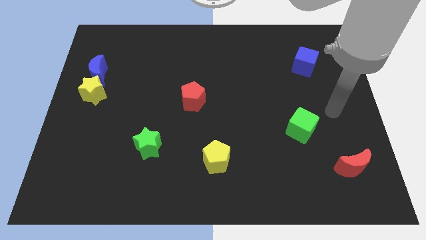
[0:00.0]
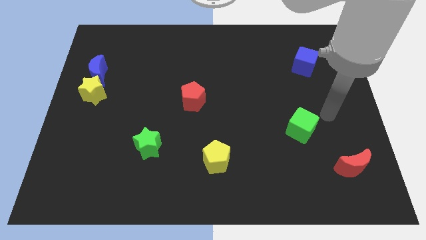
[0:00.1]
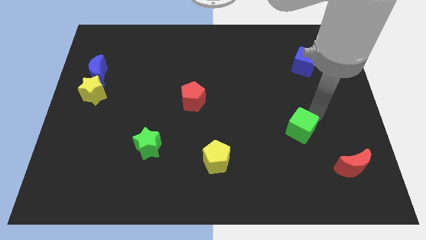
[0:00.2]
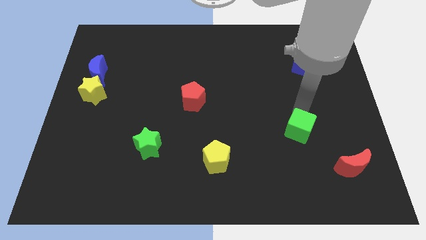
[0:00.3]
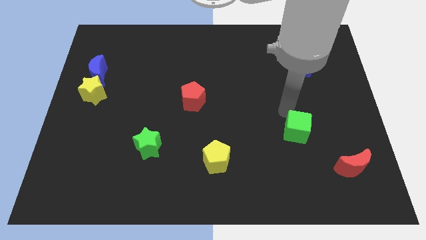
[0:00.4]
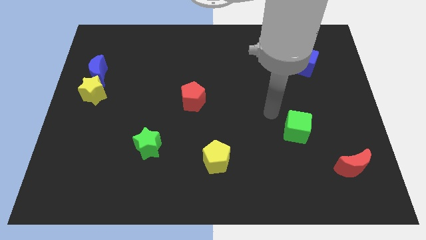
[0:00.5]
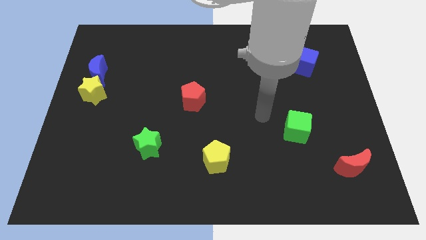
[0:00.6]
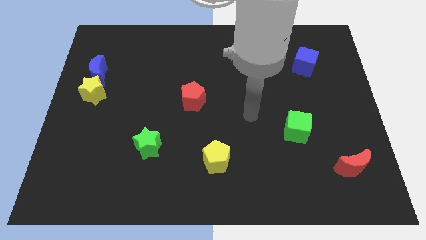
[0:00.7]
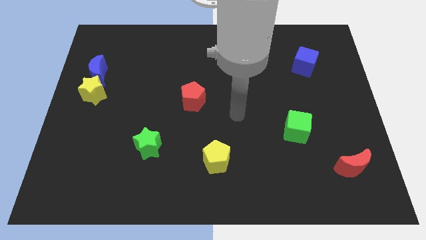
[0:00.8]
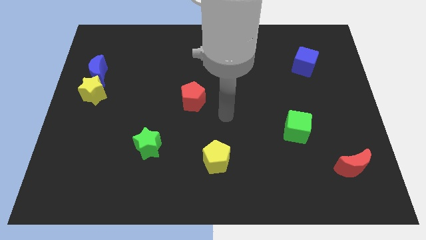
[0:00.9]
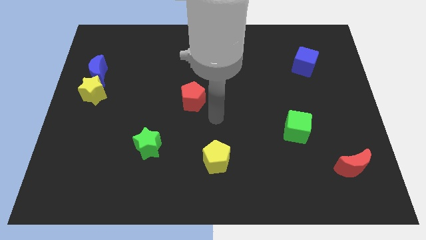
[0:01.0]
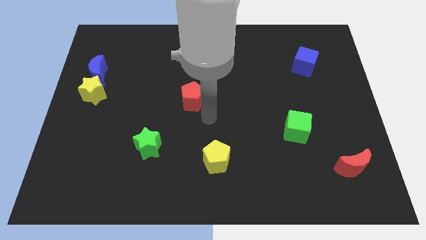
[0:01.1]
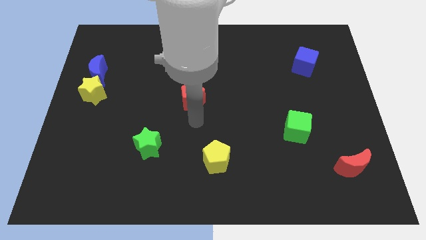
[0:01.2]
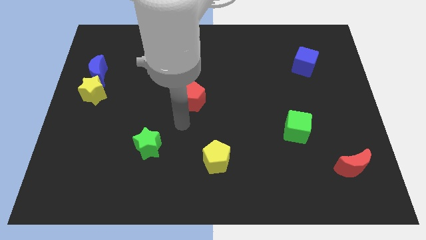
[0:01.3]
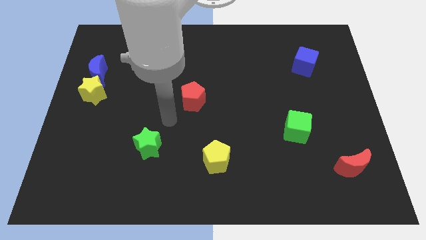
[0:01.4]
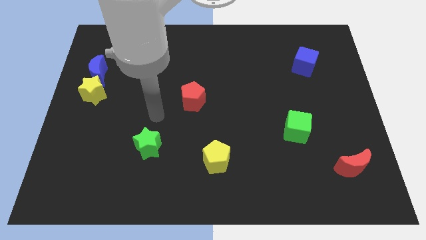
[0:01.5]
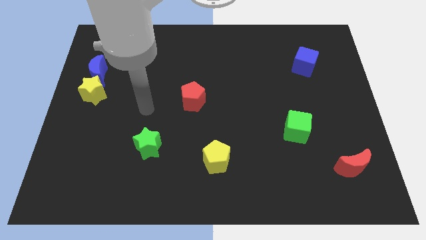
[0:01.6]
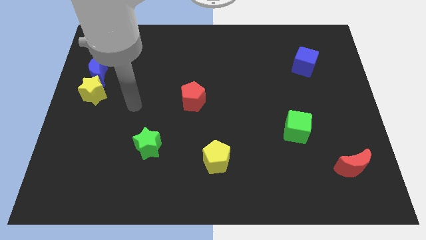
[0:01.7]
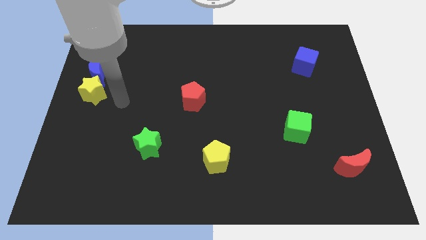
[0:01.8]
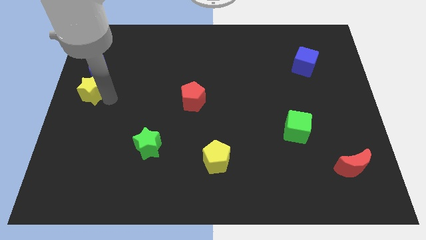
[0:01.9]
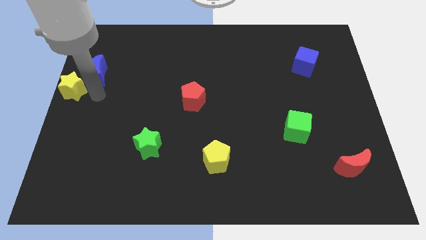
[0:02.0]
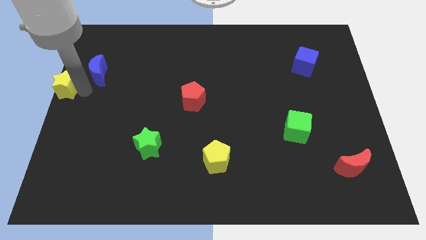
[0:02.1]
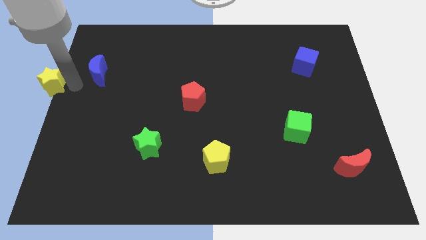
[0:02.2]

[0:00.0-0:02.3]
move the blue moon away from the yellow star

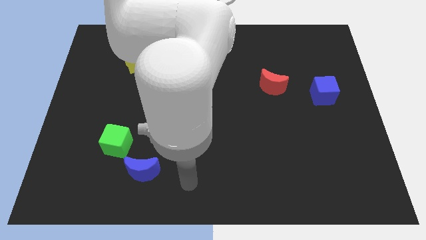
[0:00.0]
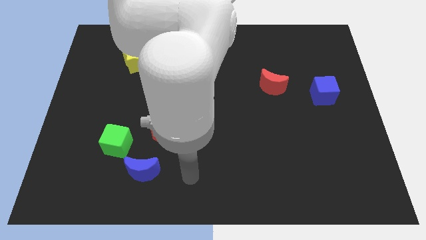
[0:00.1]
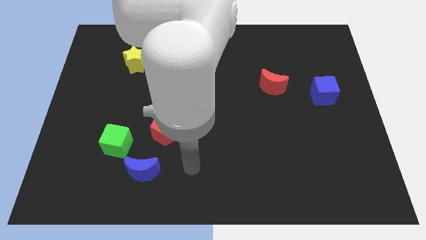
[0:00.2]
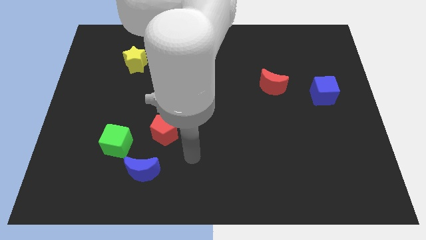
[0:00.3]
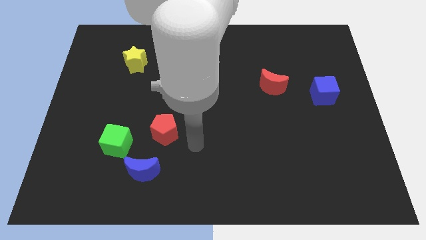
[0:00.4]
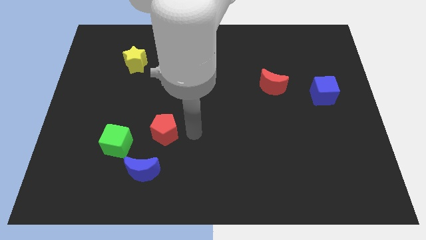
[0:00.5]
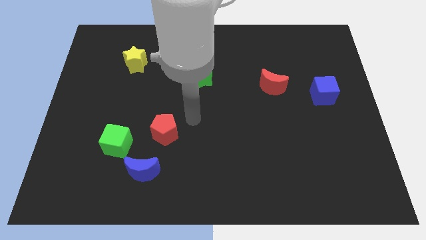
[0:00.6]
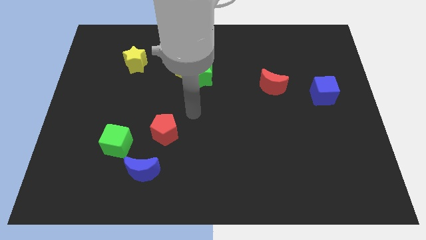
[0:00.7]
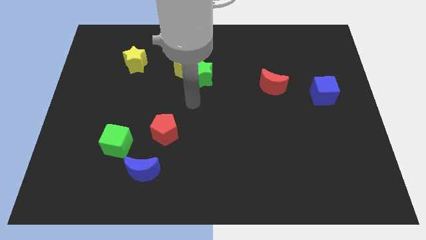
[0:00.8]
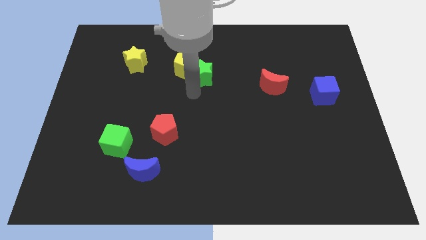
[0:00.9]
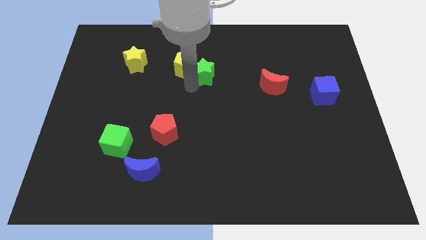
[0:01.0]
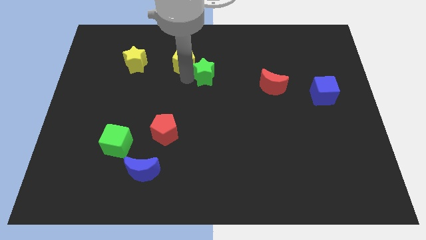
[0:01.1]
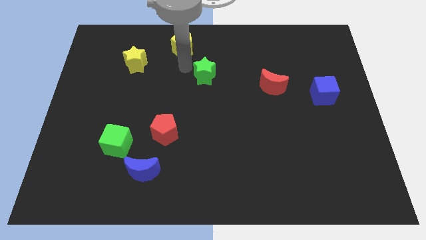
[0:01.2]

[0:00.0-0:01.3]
move the green star away from the yellow pentagon

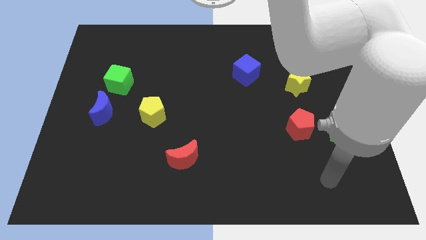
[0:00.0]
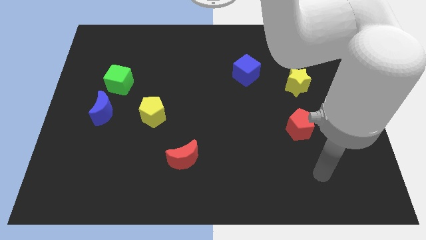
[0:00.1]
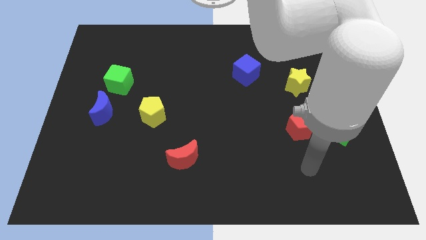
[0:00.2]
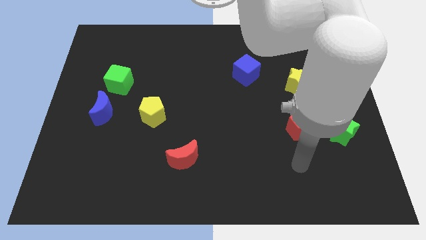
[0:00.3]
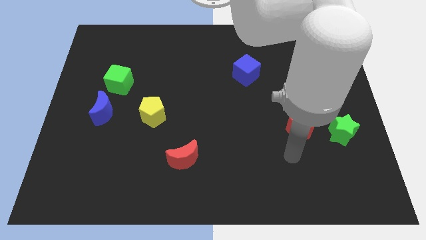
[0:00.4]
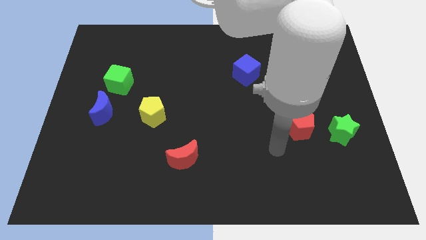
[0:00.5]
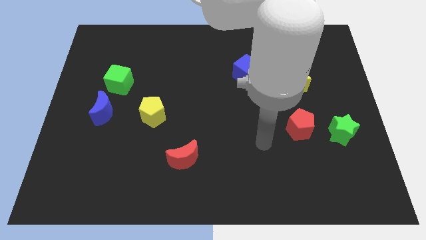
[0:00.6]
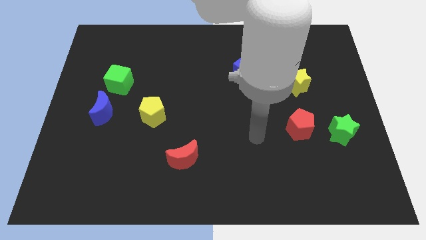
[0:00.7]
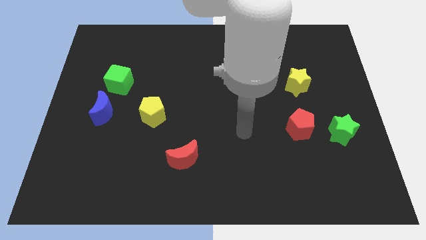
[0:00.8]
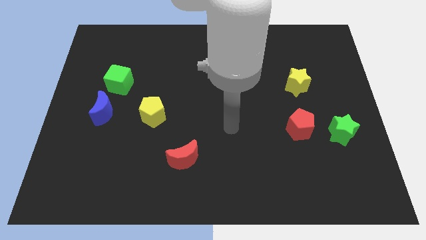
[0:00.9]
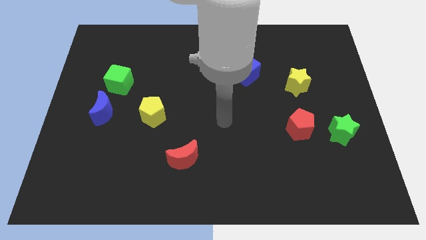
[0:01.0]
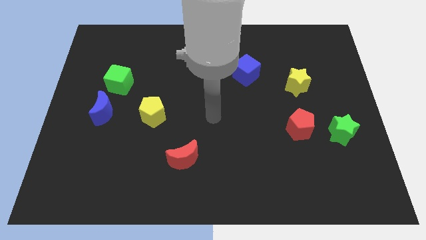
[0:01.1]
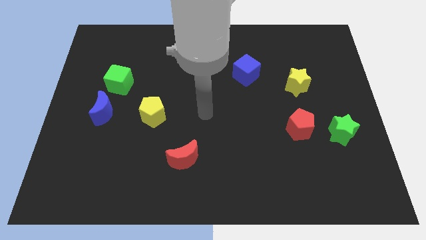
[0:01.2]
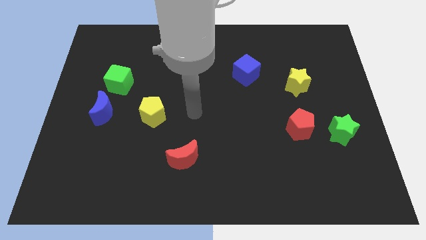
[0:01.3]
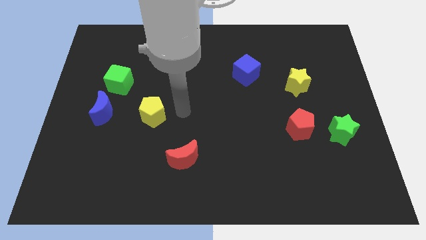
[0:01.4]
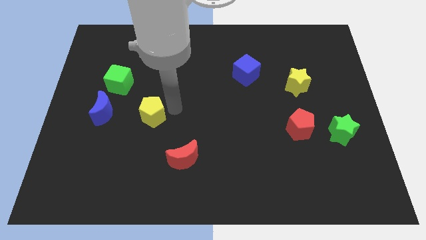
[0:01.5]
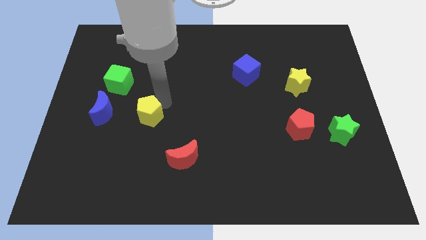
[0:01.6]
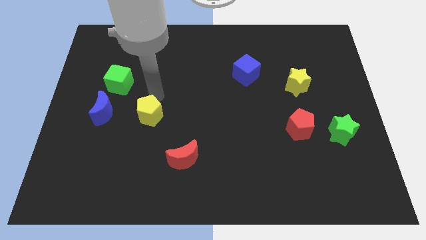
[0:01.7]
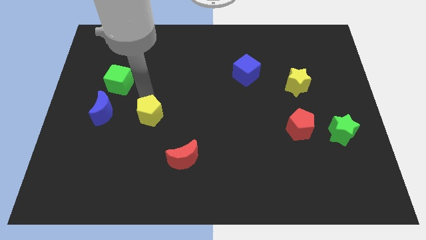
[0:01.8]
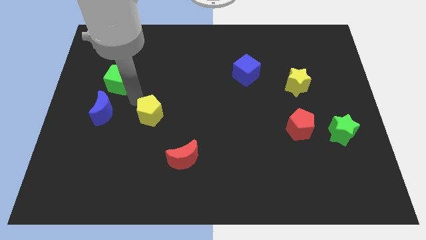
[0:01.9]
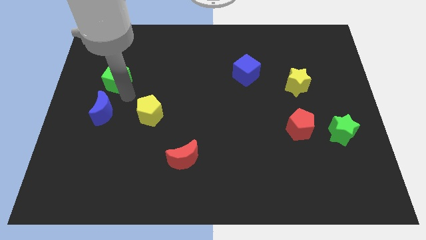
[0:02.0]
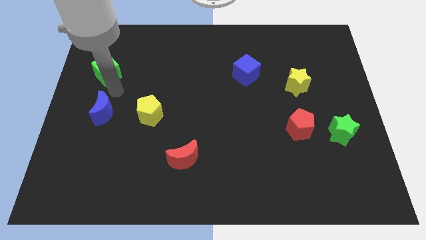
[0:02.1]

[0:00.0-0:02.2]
move the blue moon away from the green cube

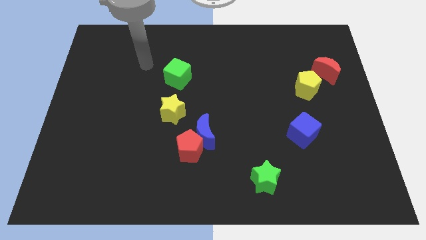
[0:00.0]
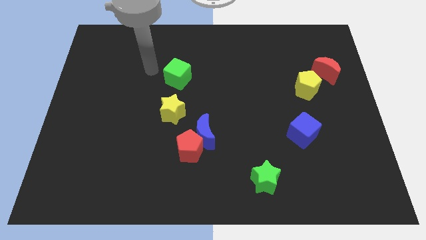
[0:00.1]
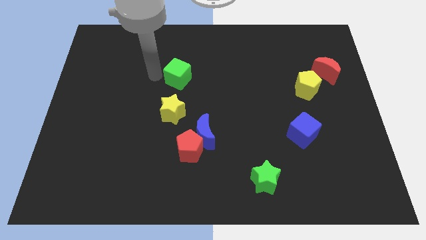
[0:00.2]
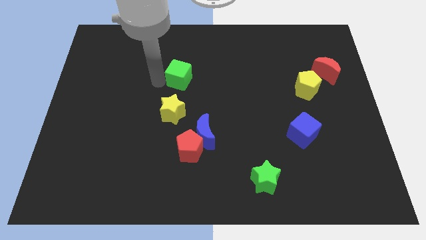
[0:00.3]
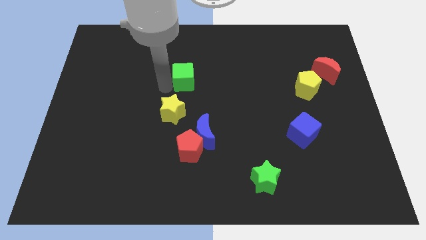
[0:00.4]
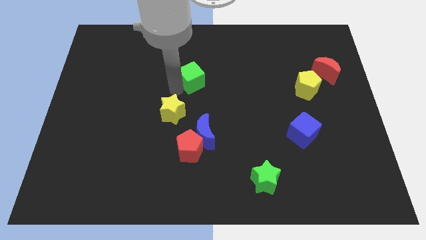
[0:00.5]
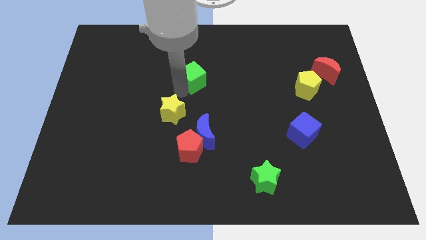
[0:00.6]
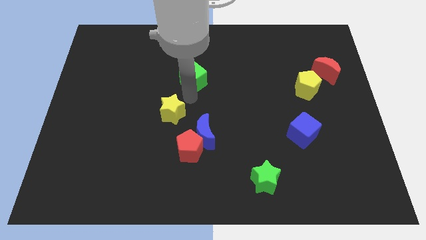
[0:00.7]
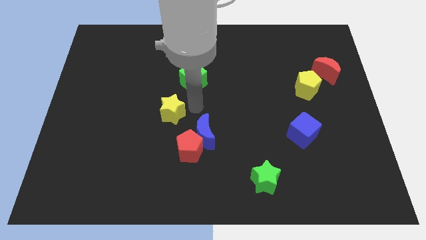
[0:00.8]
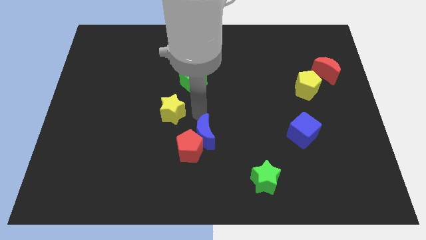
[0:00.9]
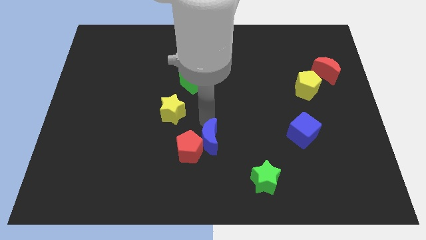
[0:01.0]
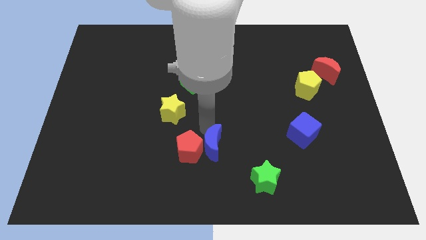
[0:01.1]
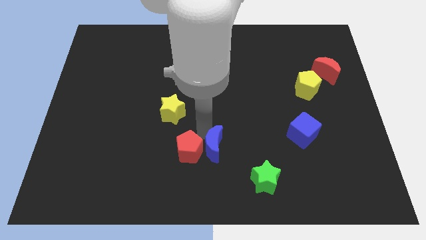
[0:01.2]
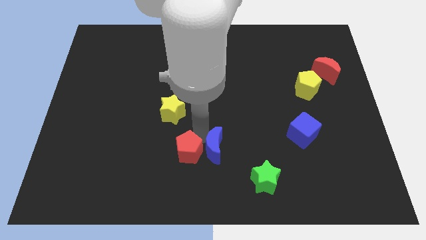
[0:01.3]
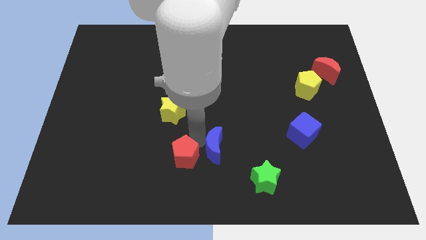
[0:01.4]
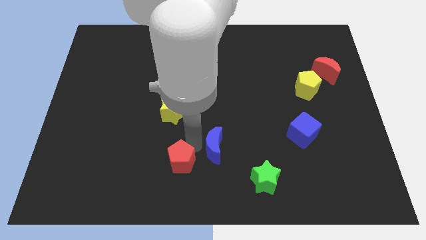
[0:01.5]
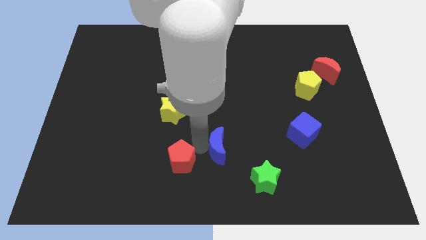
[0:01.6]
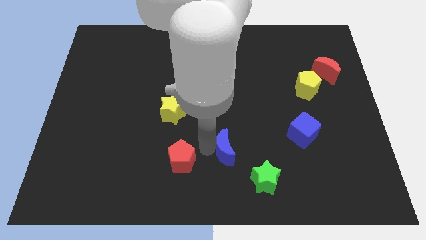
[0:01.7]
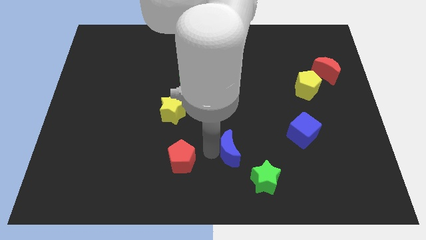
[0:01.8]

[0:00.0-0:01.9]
separate the red pentagon from the blue moon

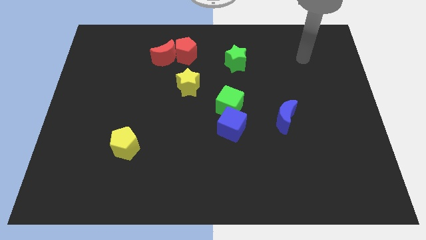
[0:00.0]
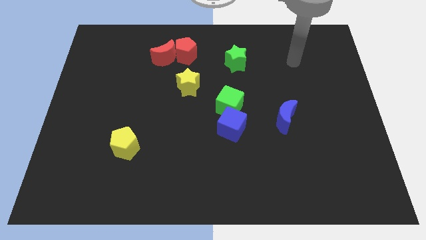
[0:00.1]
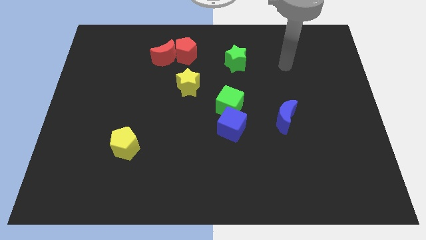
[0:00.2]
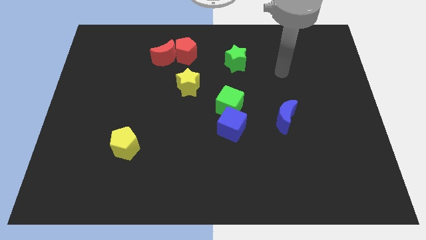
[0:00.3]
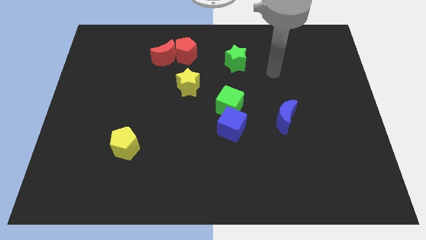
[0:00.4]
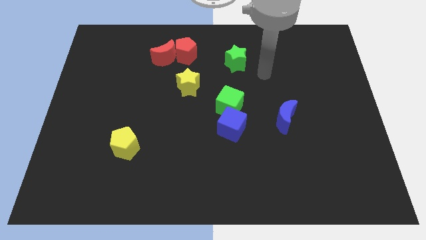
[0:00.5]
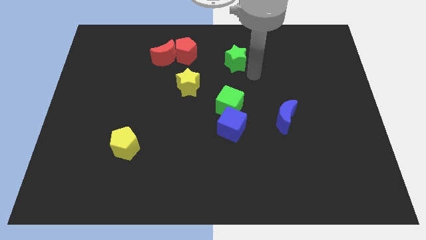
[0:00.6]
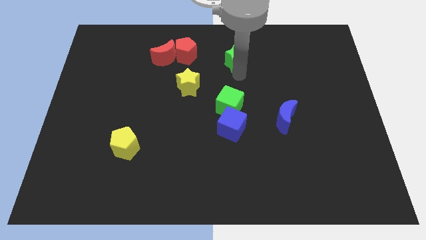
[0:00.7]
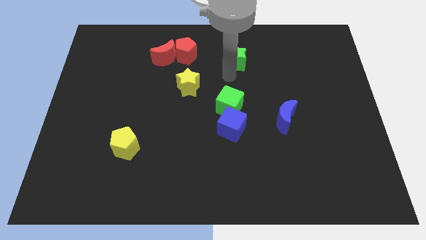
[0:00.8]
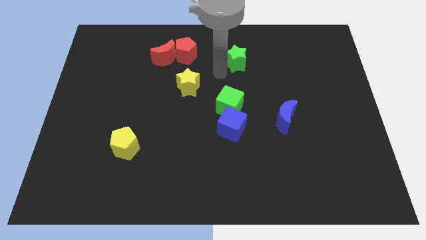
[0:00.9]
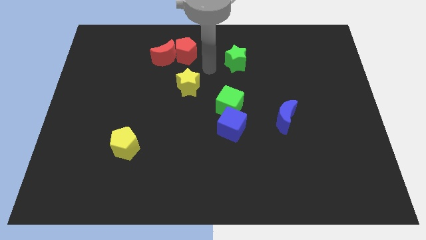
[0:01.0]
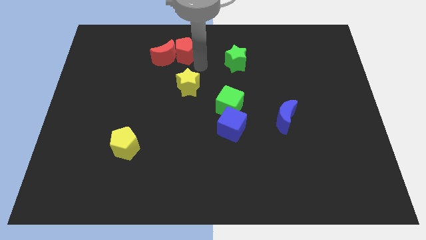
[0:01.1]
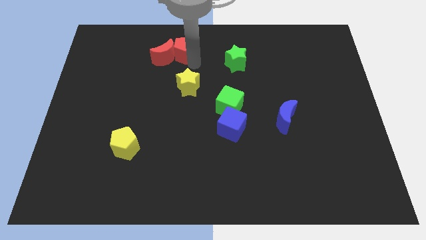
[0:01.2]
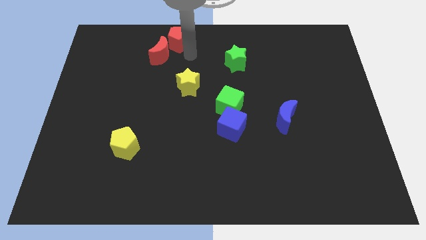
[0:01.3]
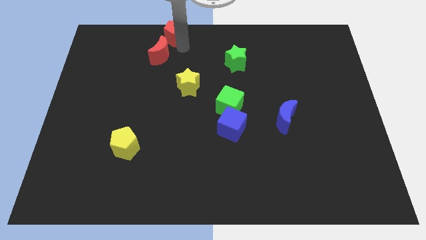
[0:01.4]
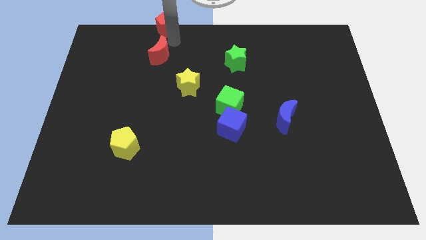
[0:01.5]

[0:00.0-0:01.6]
separate the red moon from the red pentagon

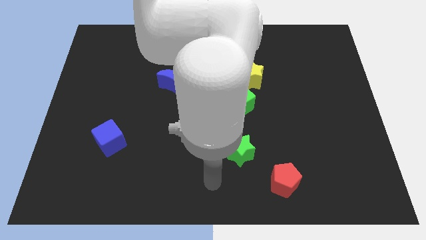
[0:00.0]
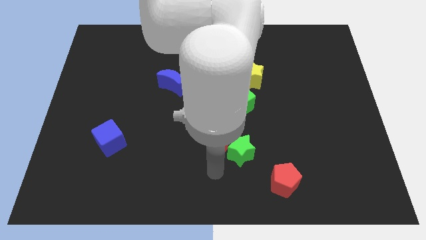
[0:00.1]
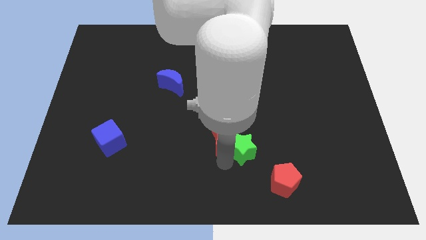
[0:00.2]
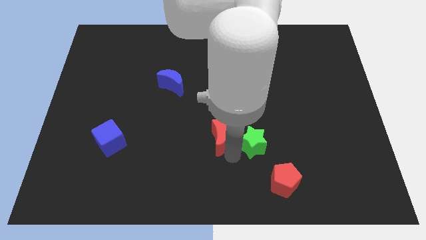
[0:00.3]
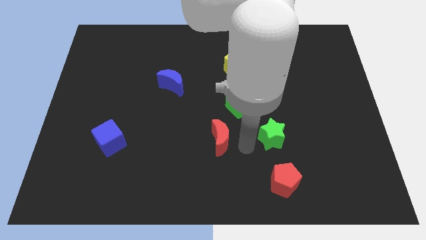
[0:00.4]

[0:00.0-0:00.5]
pull the red moon apart from the green star
